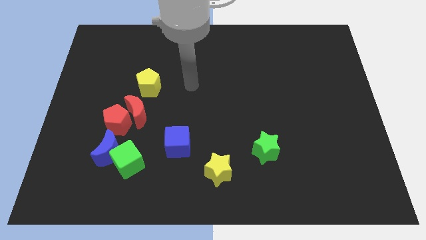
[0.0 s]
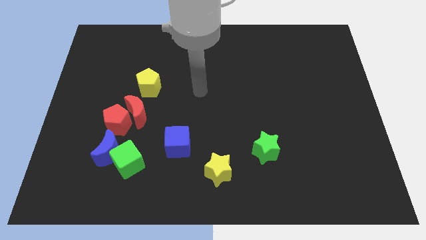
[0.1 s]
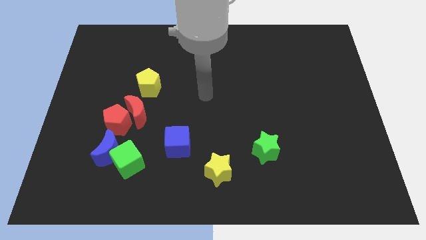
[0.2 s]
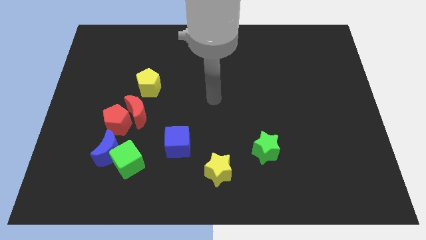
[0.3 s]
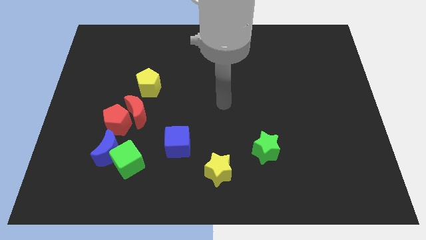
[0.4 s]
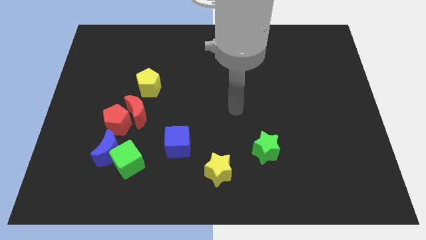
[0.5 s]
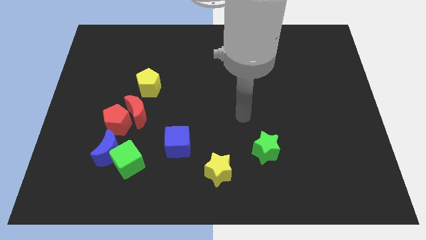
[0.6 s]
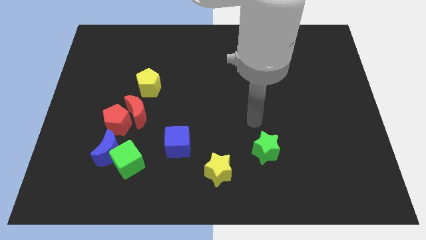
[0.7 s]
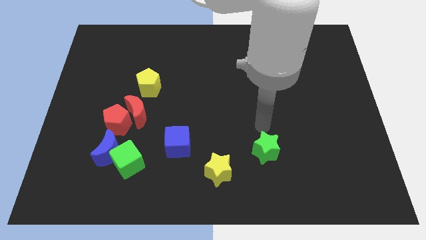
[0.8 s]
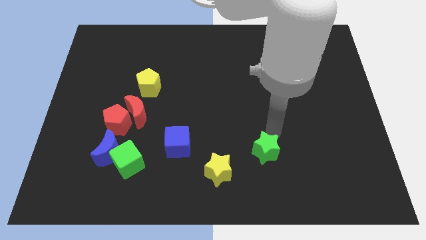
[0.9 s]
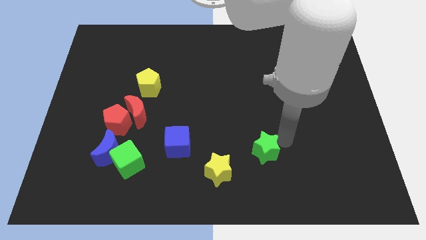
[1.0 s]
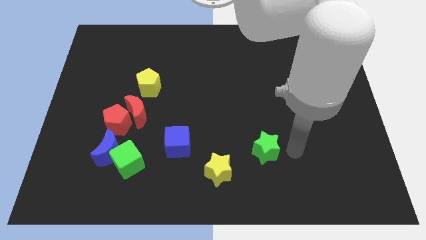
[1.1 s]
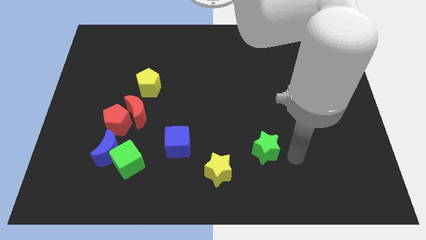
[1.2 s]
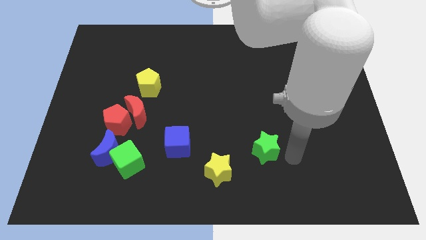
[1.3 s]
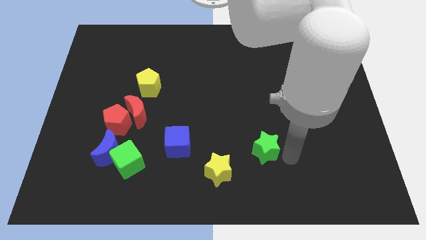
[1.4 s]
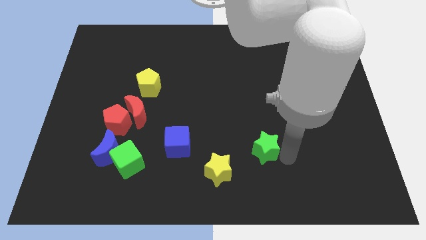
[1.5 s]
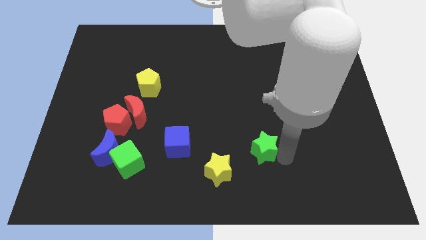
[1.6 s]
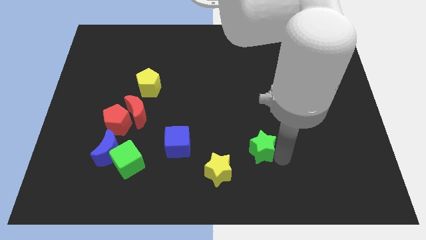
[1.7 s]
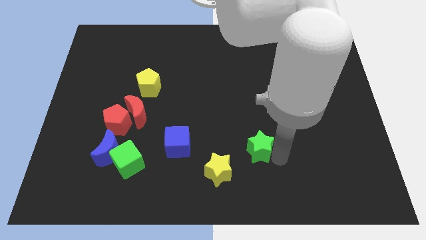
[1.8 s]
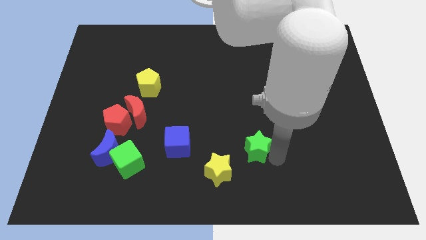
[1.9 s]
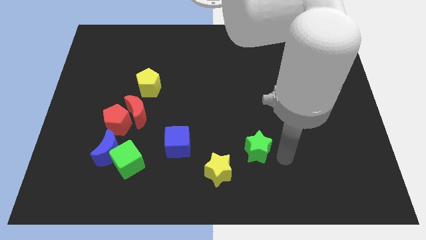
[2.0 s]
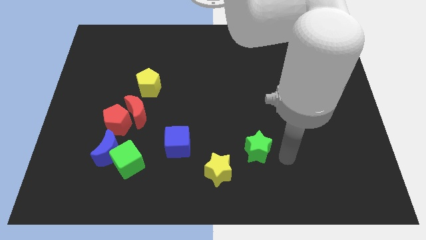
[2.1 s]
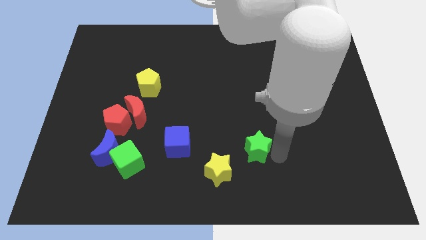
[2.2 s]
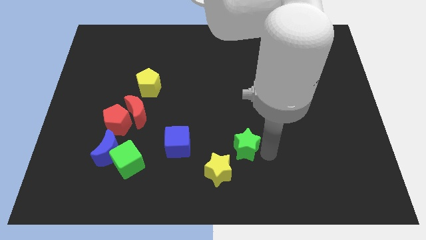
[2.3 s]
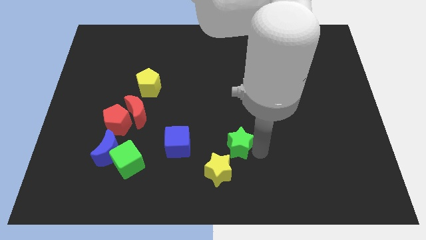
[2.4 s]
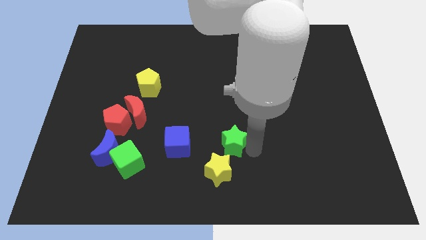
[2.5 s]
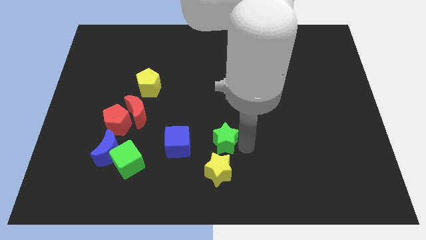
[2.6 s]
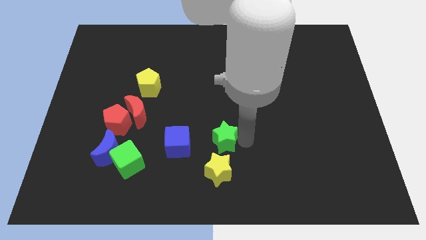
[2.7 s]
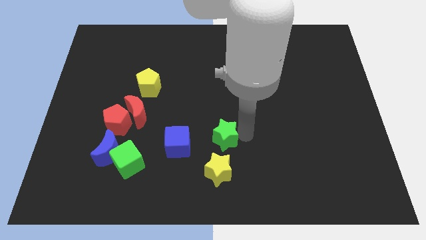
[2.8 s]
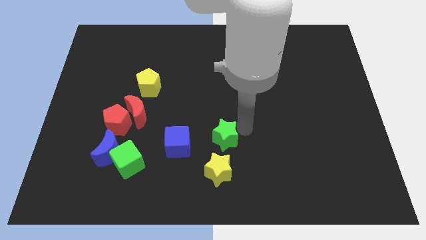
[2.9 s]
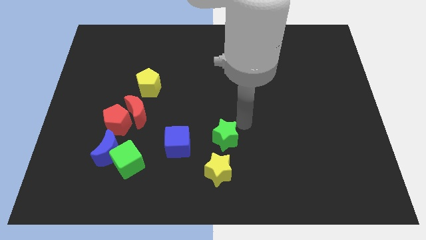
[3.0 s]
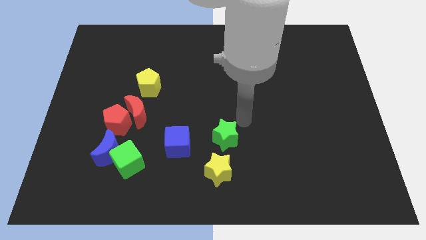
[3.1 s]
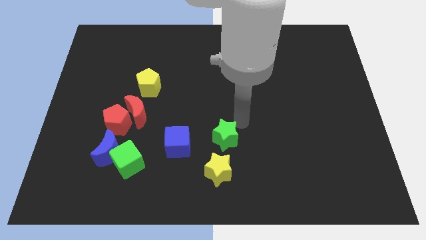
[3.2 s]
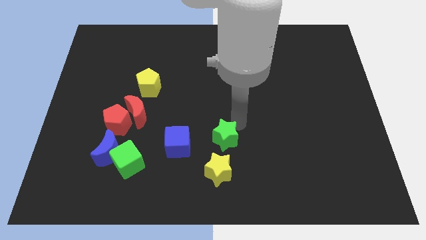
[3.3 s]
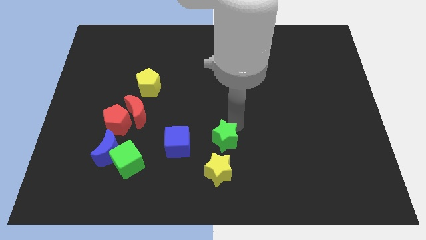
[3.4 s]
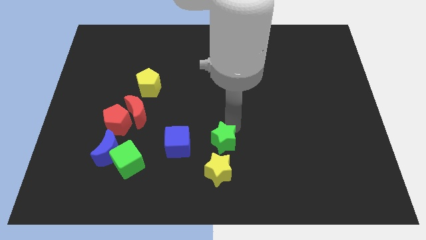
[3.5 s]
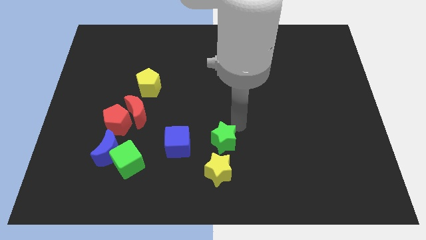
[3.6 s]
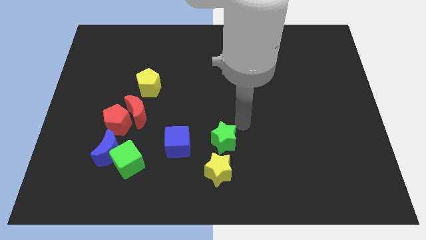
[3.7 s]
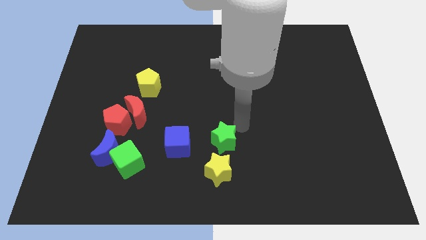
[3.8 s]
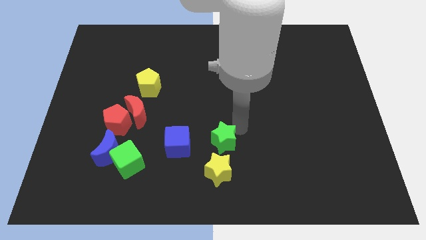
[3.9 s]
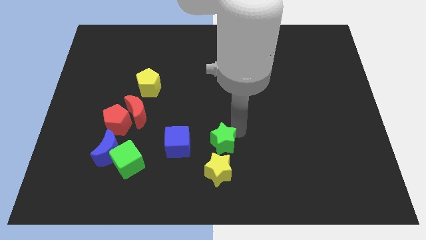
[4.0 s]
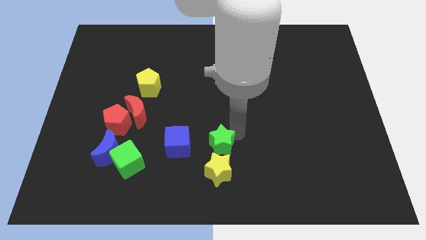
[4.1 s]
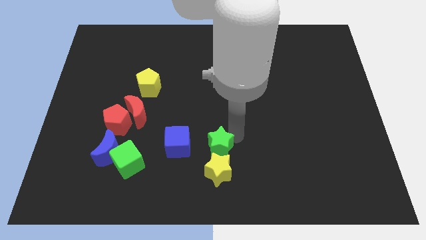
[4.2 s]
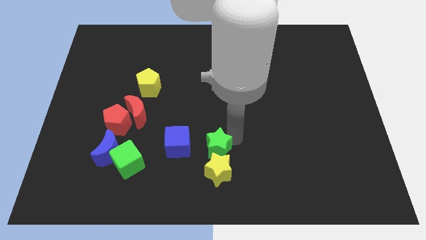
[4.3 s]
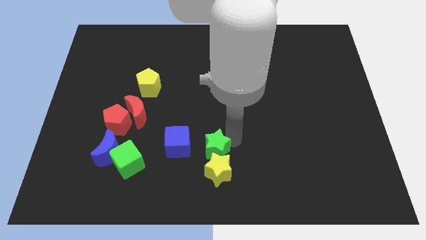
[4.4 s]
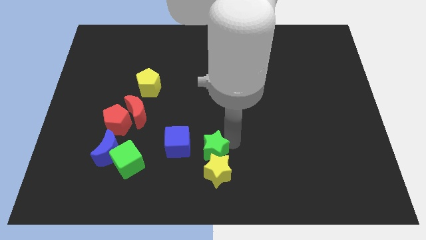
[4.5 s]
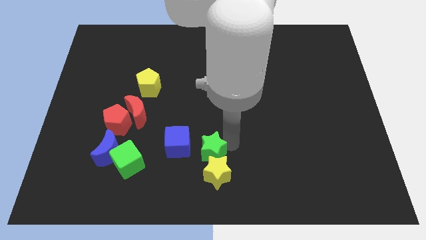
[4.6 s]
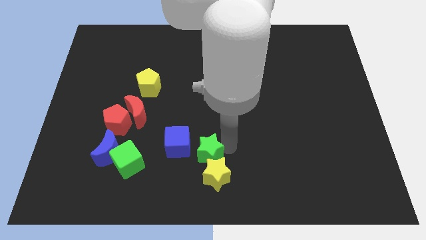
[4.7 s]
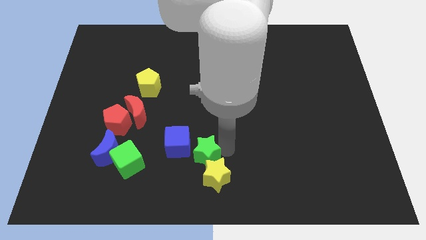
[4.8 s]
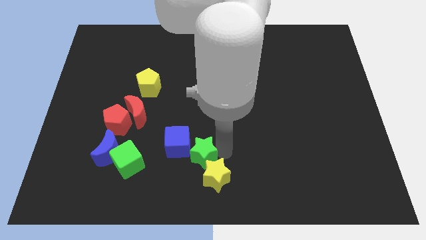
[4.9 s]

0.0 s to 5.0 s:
move the green star to the right of the green cube

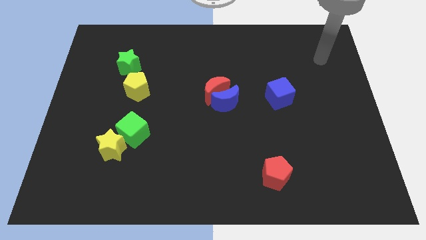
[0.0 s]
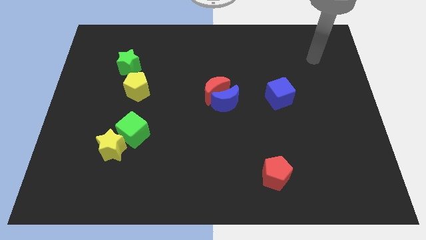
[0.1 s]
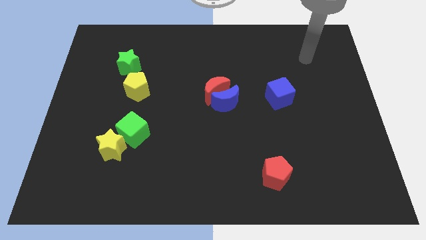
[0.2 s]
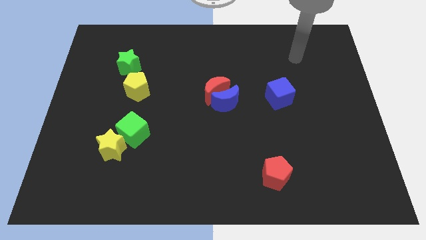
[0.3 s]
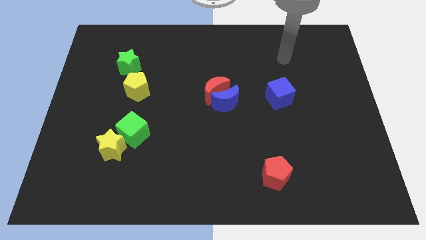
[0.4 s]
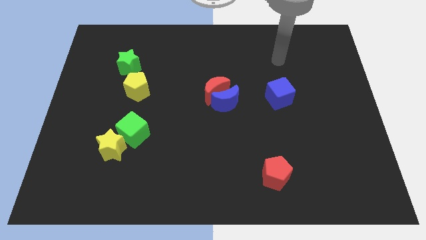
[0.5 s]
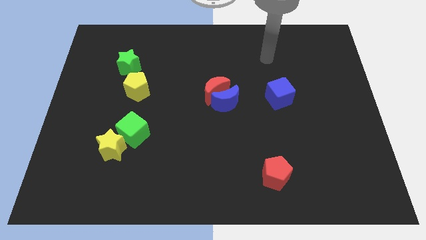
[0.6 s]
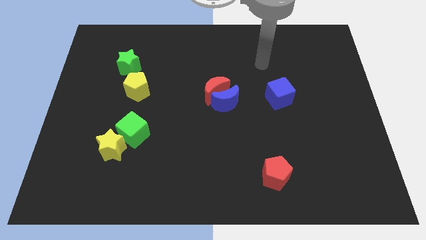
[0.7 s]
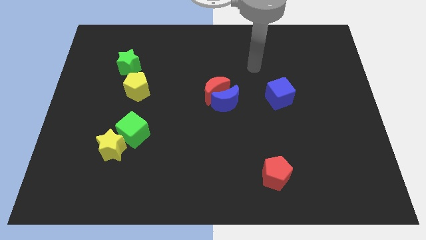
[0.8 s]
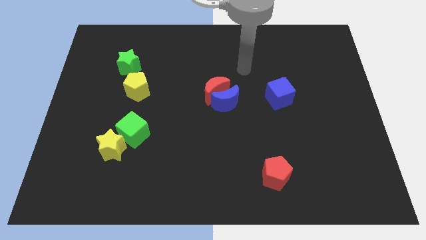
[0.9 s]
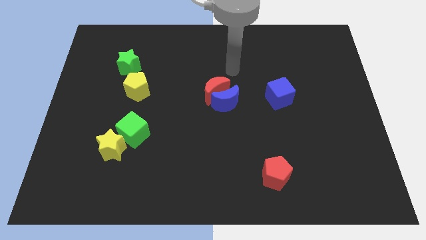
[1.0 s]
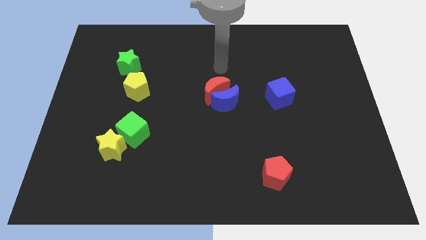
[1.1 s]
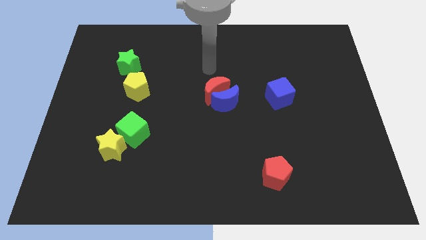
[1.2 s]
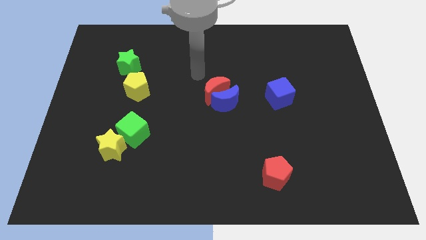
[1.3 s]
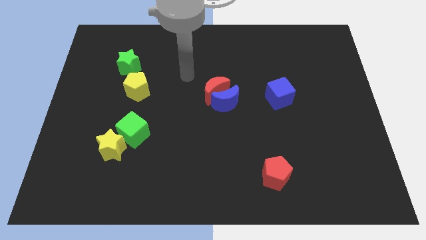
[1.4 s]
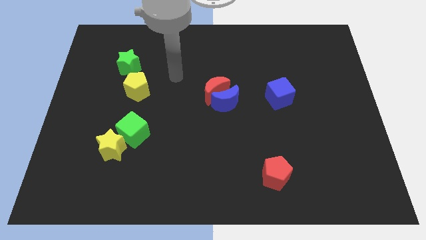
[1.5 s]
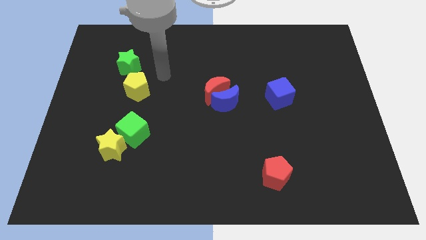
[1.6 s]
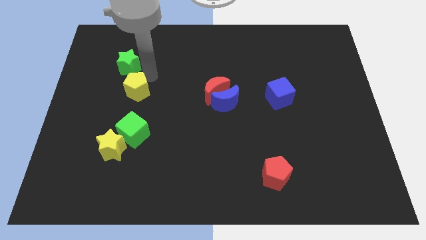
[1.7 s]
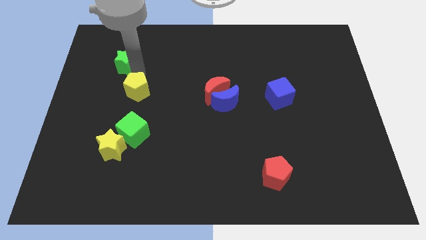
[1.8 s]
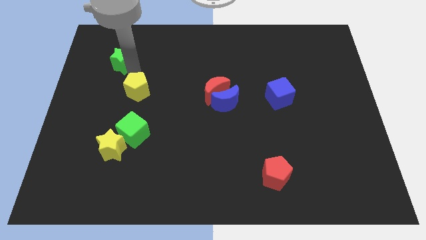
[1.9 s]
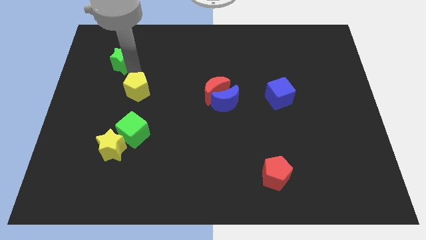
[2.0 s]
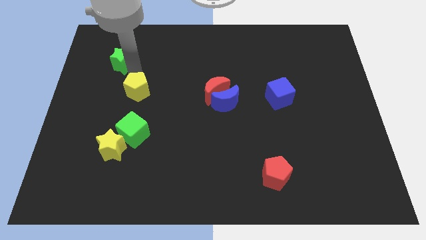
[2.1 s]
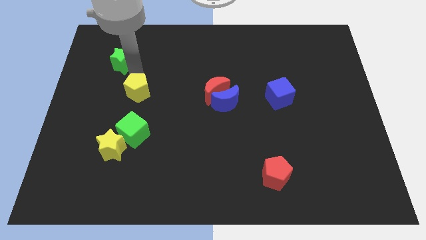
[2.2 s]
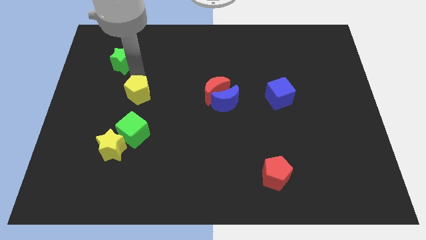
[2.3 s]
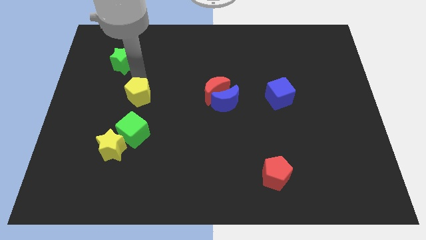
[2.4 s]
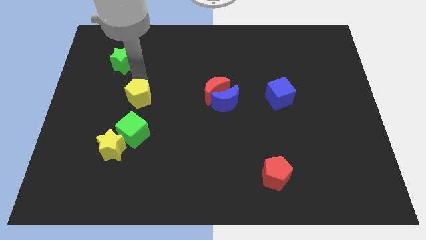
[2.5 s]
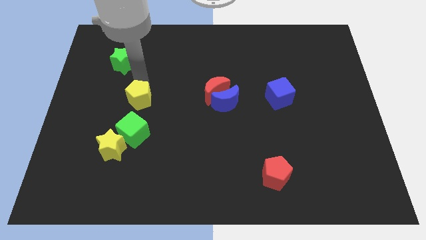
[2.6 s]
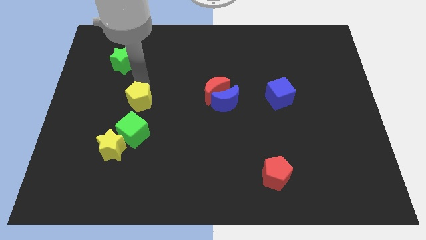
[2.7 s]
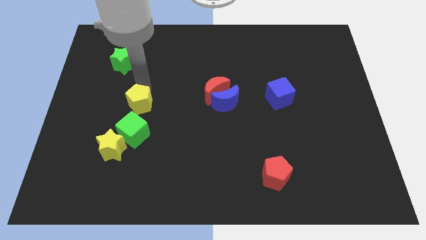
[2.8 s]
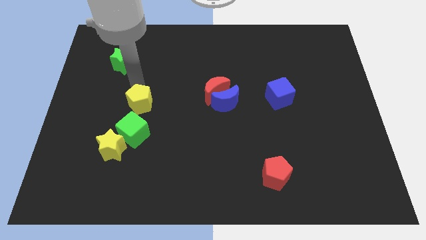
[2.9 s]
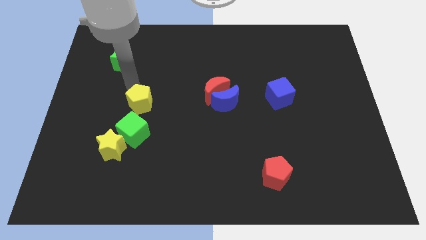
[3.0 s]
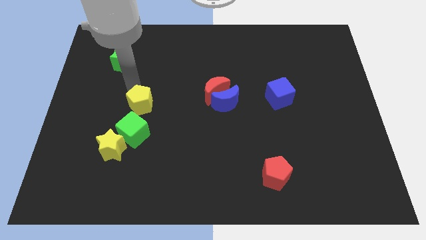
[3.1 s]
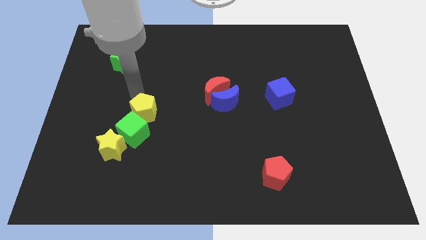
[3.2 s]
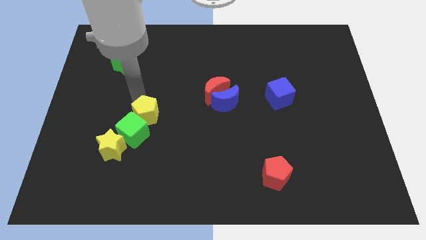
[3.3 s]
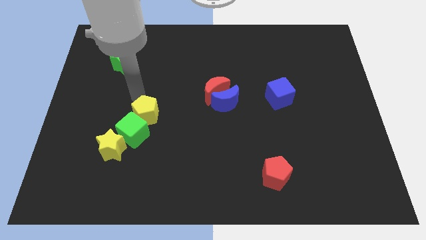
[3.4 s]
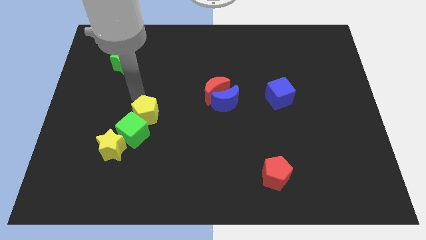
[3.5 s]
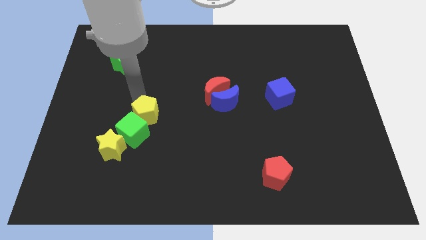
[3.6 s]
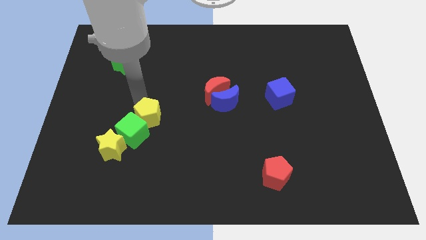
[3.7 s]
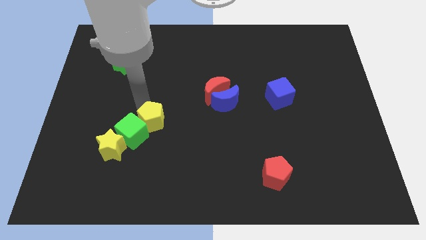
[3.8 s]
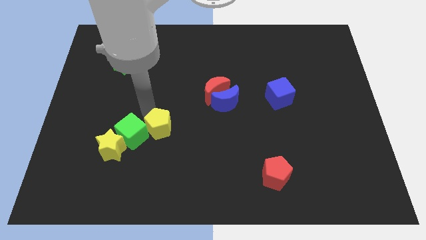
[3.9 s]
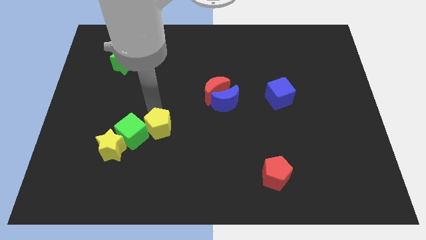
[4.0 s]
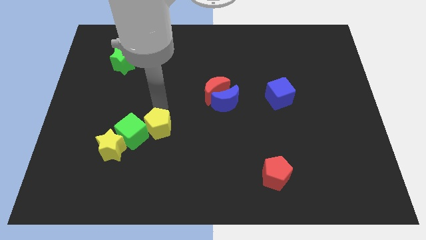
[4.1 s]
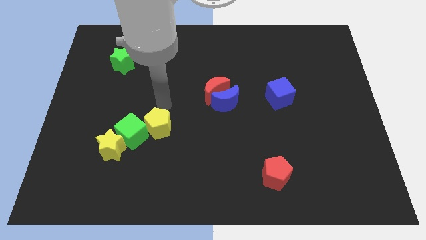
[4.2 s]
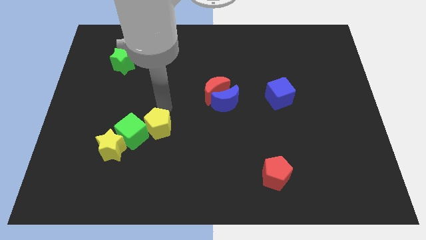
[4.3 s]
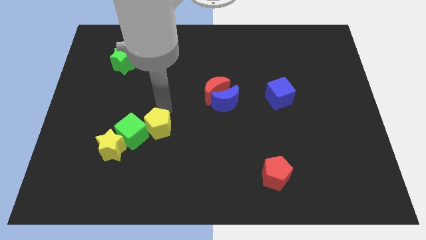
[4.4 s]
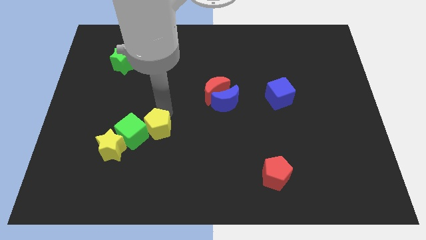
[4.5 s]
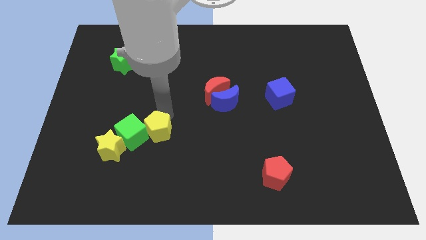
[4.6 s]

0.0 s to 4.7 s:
push the yellow pentagon diagonally down and to the right of the green cube
